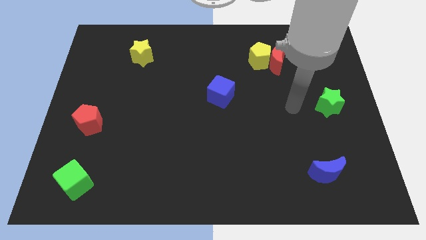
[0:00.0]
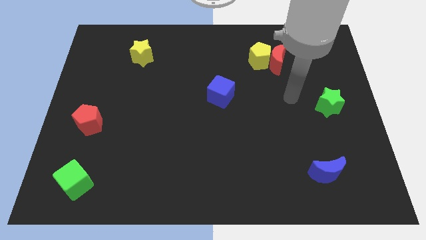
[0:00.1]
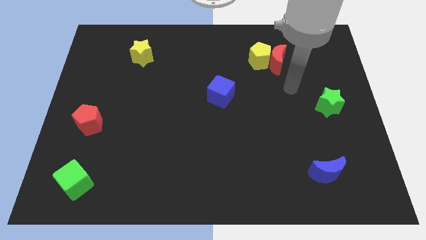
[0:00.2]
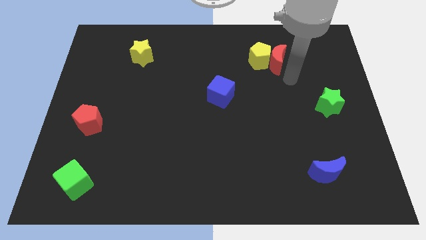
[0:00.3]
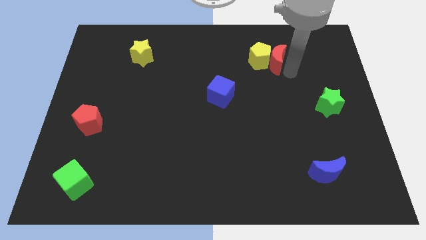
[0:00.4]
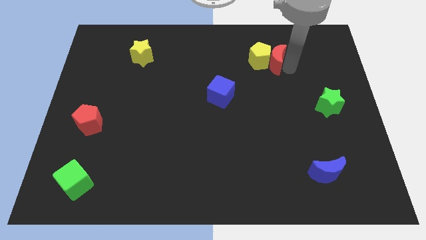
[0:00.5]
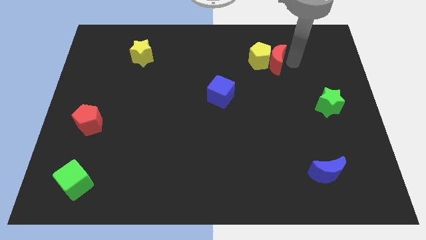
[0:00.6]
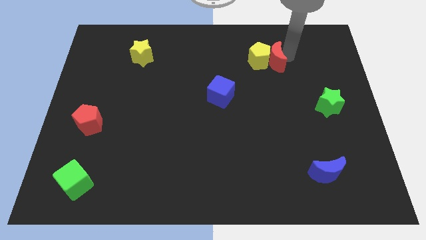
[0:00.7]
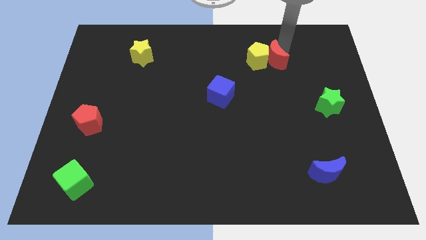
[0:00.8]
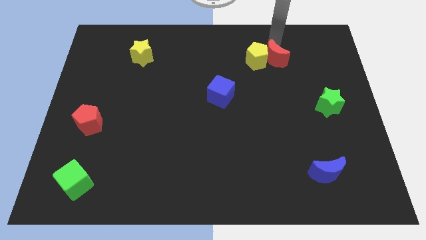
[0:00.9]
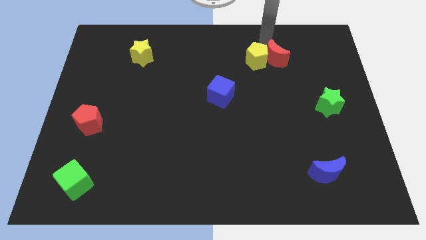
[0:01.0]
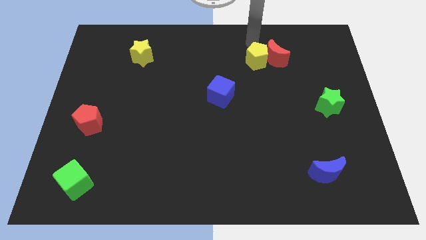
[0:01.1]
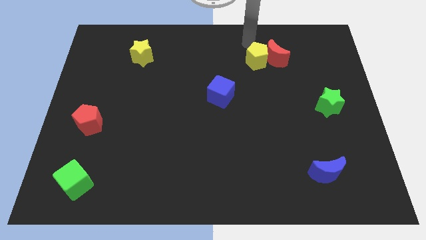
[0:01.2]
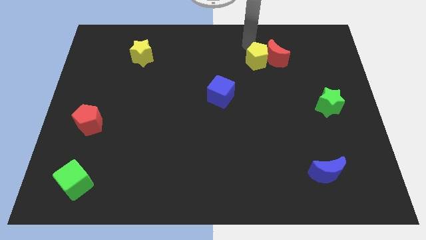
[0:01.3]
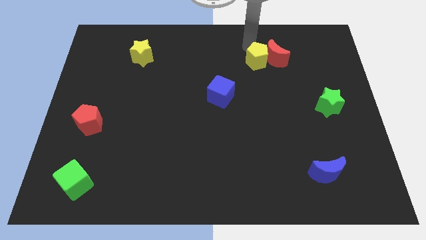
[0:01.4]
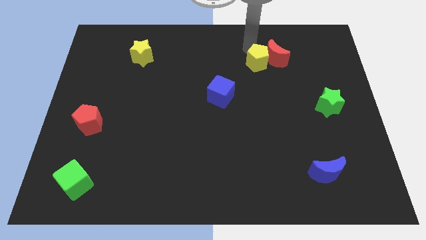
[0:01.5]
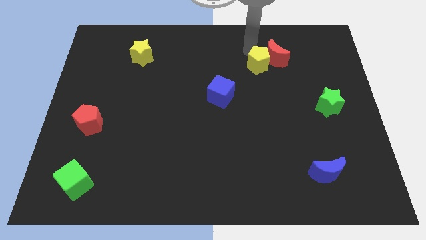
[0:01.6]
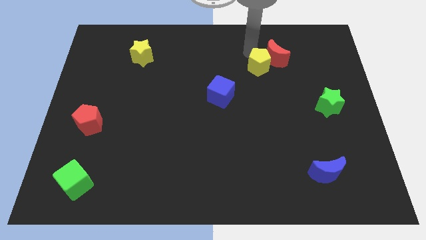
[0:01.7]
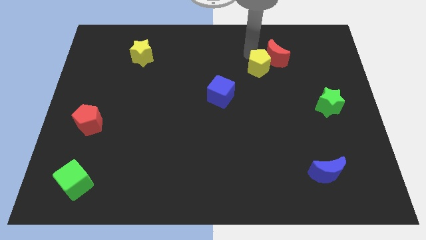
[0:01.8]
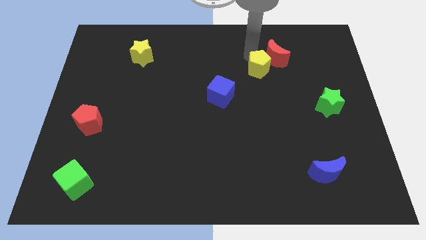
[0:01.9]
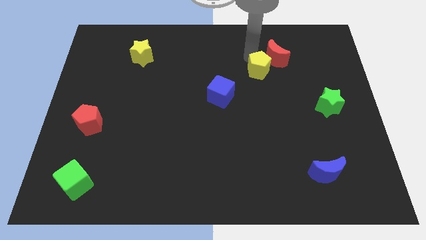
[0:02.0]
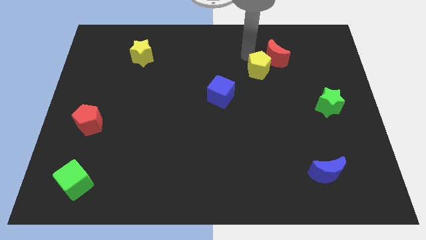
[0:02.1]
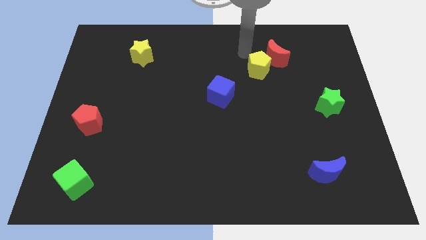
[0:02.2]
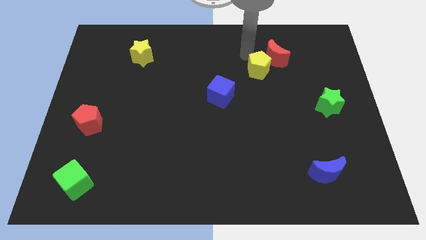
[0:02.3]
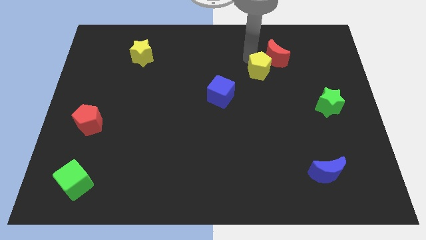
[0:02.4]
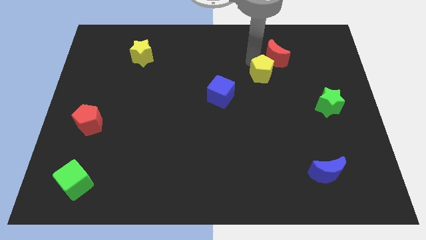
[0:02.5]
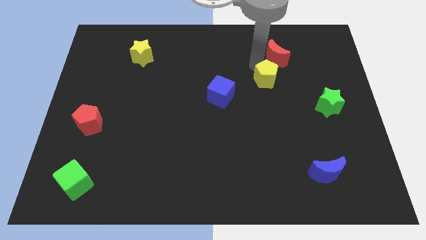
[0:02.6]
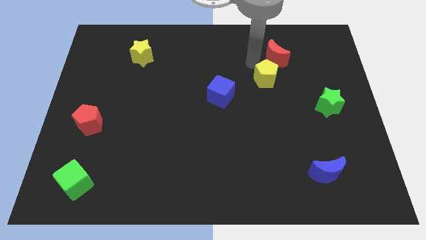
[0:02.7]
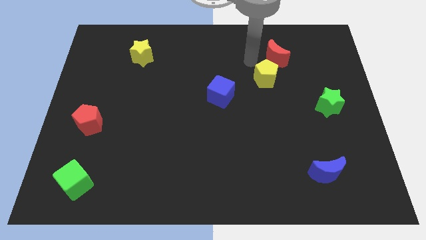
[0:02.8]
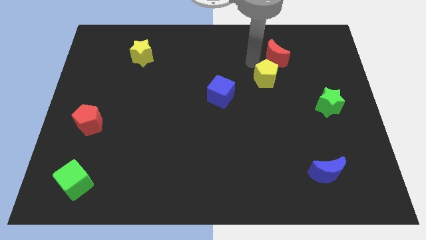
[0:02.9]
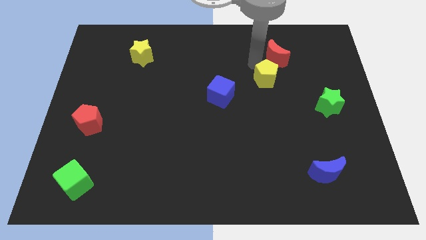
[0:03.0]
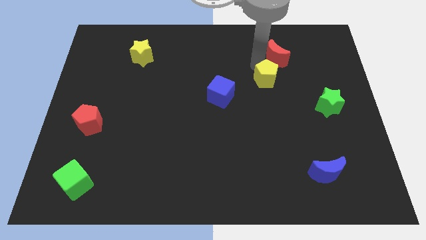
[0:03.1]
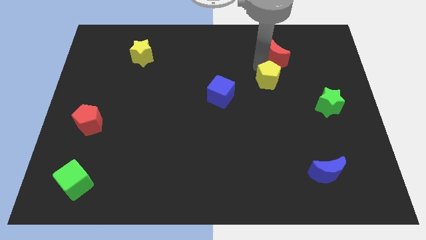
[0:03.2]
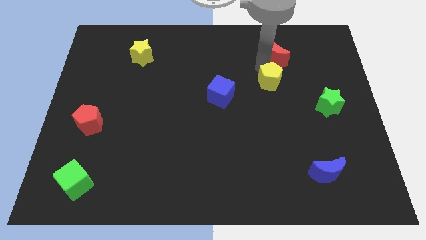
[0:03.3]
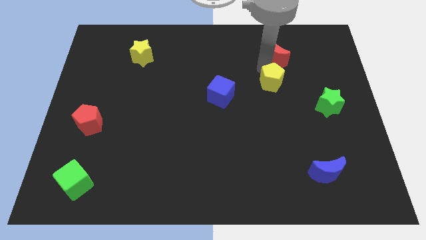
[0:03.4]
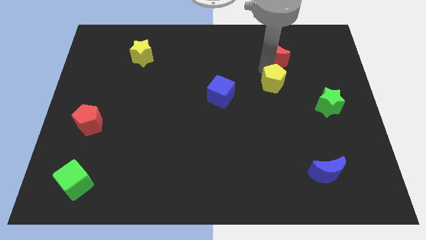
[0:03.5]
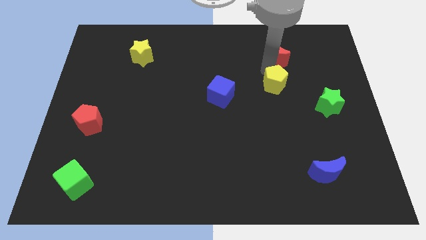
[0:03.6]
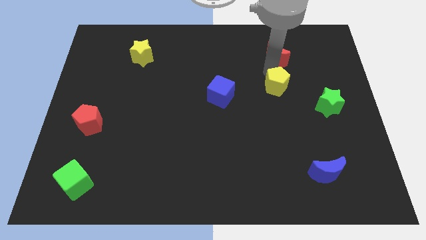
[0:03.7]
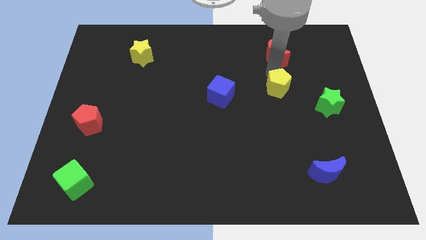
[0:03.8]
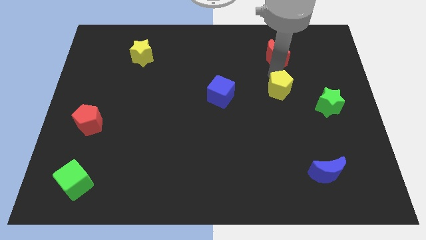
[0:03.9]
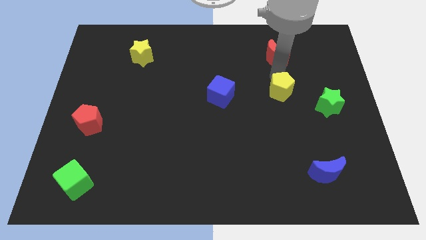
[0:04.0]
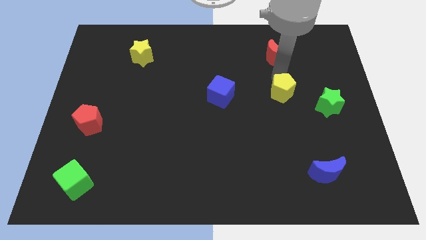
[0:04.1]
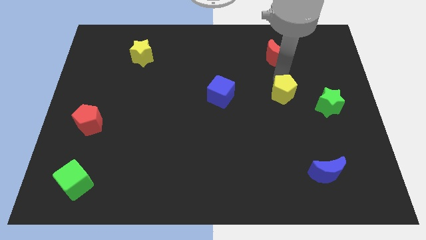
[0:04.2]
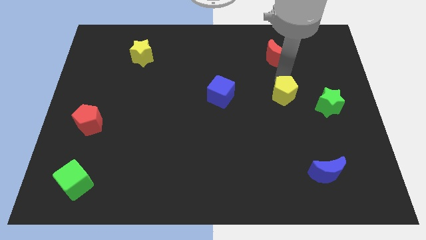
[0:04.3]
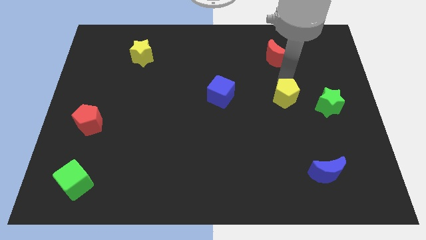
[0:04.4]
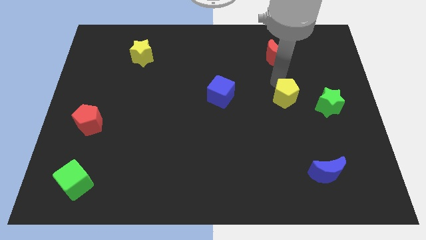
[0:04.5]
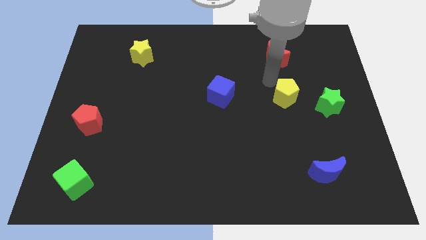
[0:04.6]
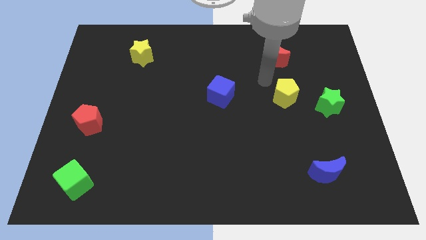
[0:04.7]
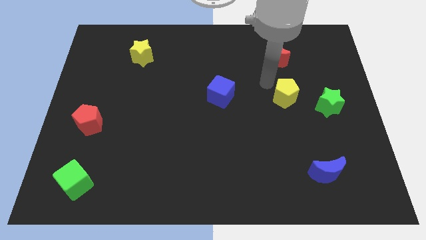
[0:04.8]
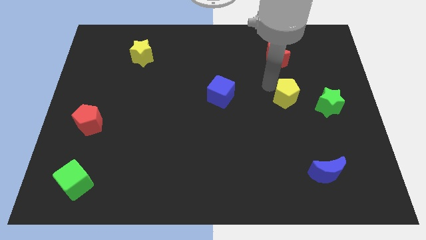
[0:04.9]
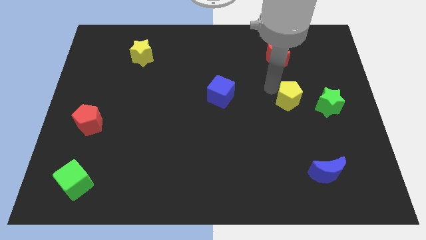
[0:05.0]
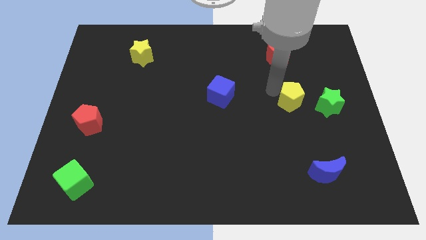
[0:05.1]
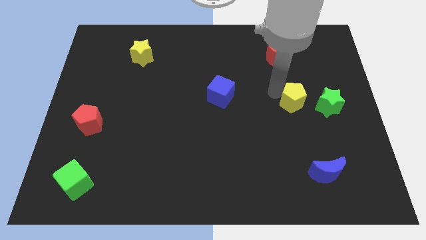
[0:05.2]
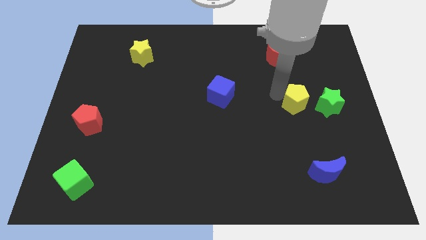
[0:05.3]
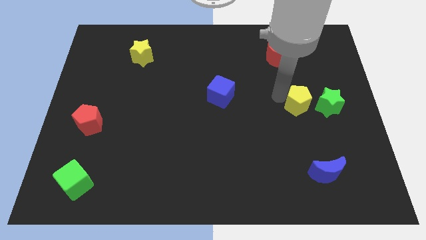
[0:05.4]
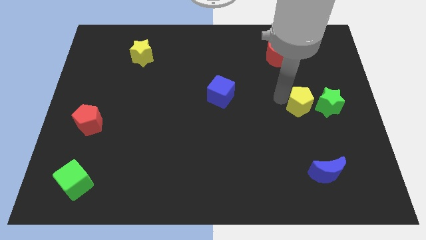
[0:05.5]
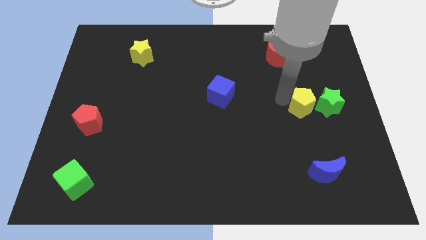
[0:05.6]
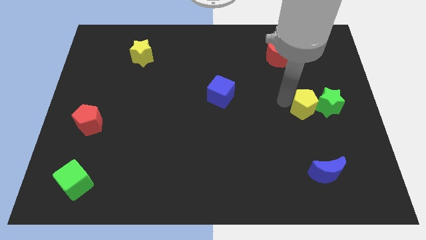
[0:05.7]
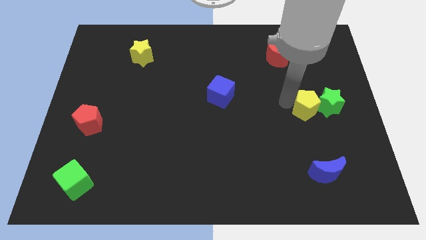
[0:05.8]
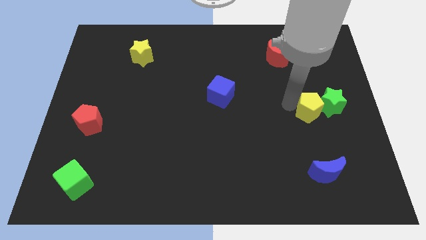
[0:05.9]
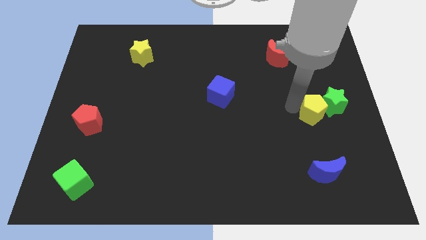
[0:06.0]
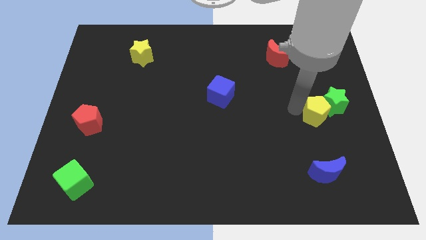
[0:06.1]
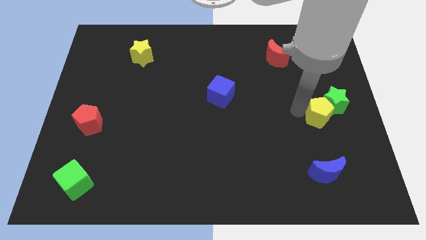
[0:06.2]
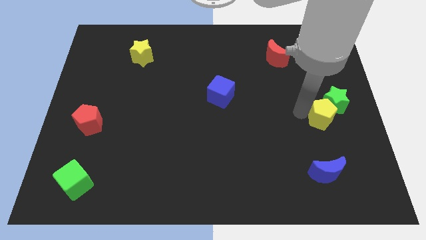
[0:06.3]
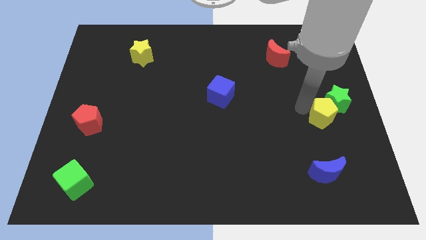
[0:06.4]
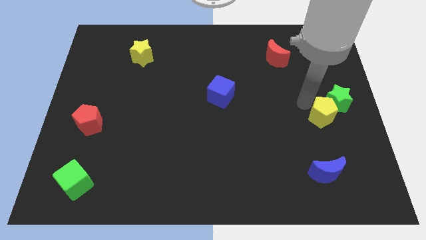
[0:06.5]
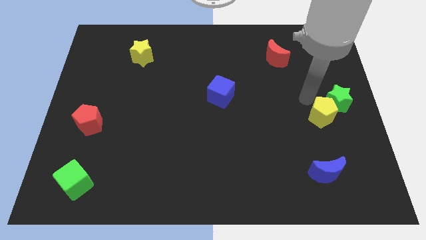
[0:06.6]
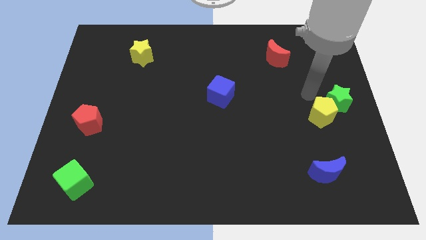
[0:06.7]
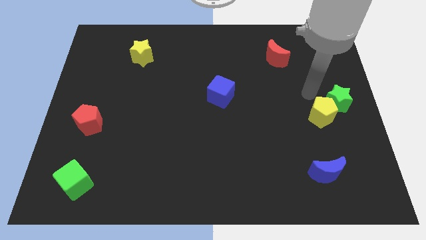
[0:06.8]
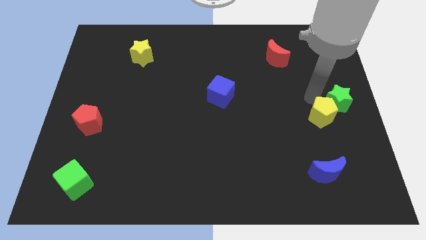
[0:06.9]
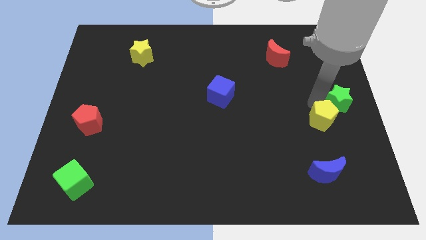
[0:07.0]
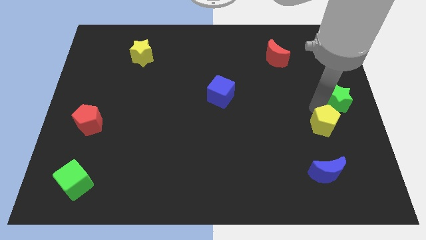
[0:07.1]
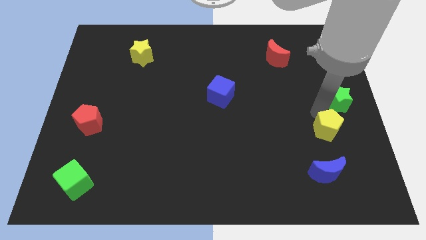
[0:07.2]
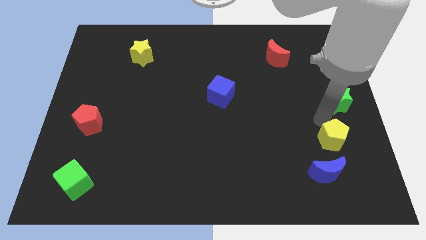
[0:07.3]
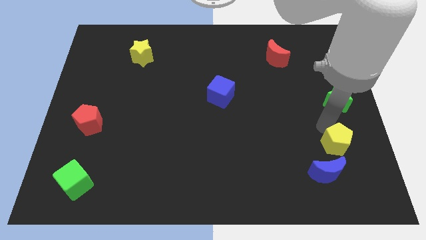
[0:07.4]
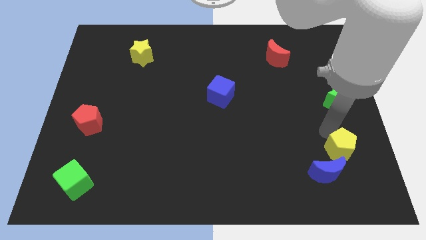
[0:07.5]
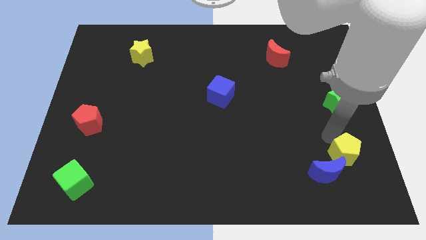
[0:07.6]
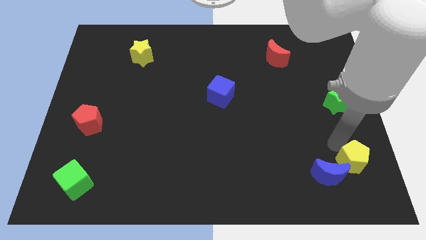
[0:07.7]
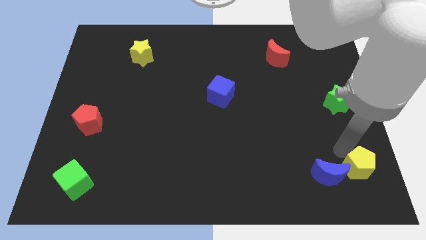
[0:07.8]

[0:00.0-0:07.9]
move the yellow pentagon to the bottom right
